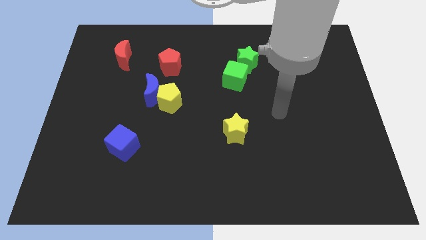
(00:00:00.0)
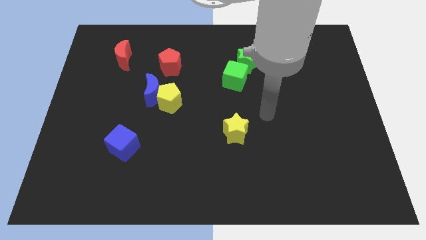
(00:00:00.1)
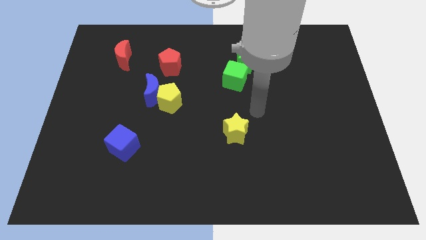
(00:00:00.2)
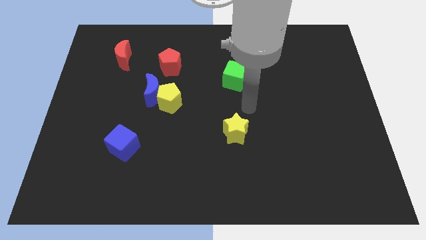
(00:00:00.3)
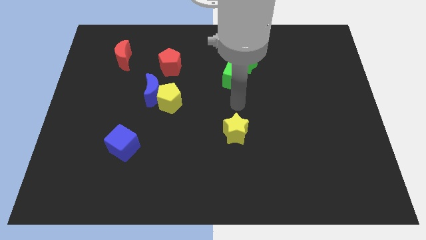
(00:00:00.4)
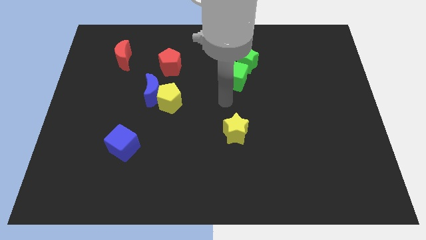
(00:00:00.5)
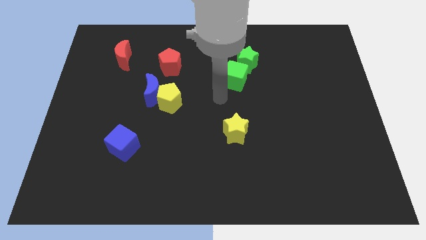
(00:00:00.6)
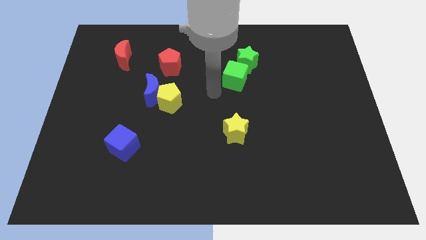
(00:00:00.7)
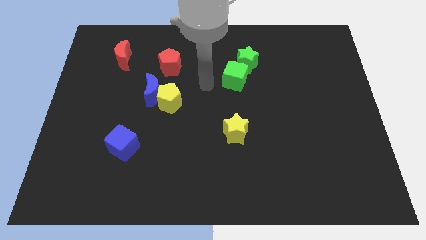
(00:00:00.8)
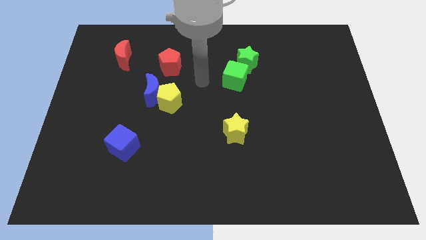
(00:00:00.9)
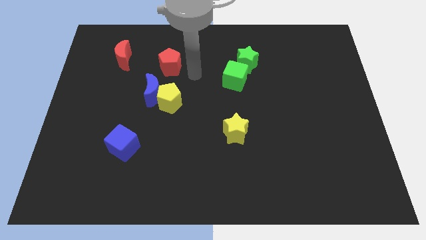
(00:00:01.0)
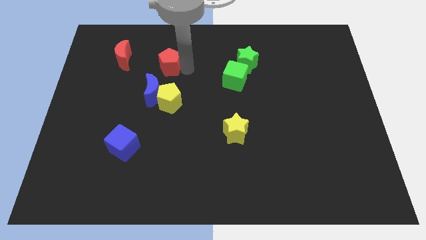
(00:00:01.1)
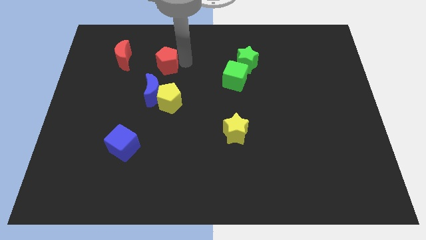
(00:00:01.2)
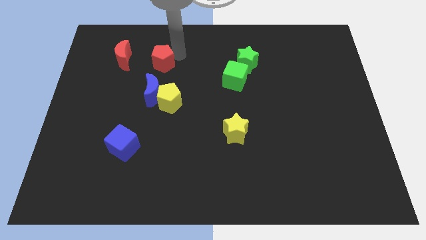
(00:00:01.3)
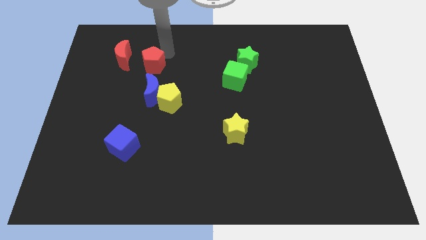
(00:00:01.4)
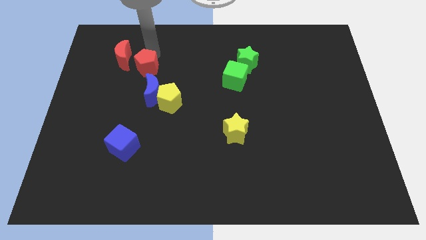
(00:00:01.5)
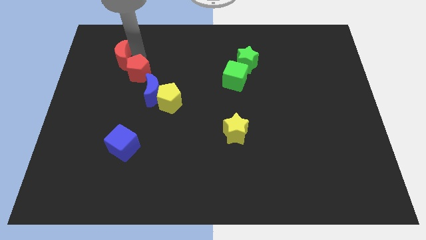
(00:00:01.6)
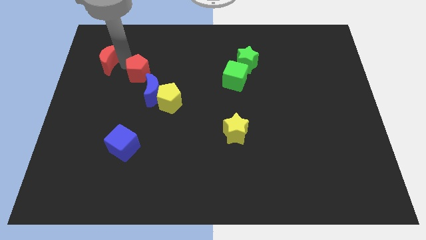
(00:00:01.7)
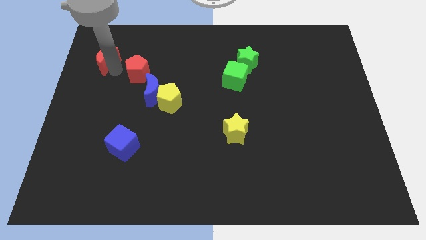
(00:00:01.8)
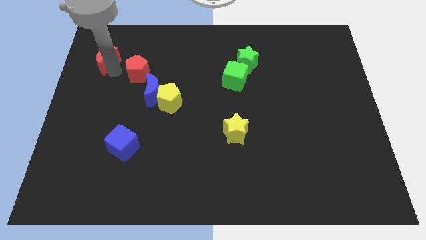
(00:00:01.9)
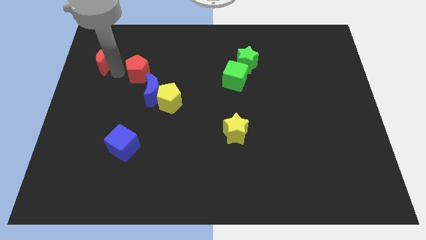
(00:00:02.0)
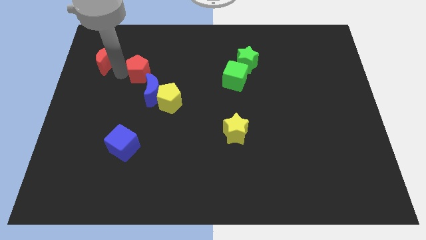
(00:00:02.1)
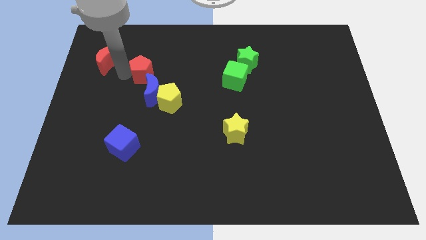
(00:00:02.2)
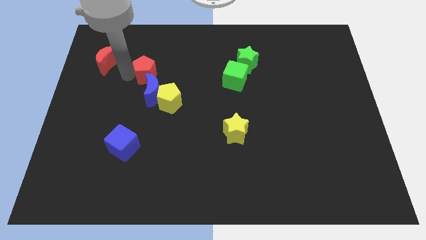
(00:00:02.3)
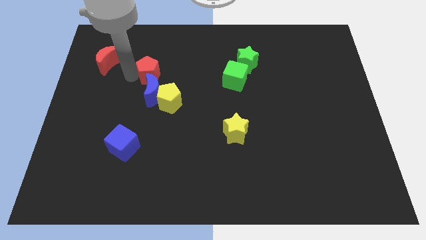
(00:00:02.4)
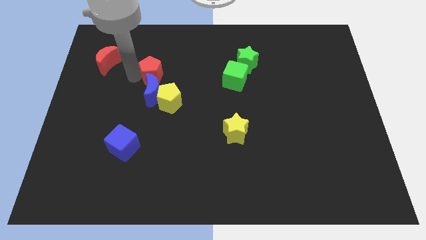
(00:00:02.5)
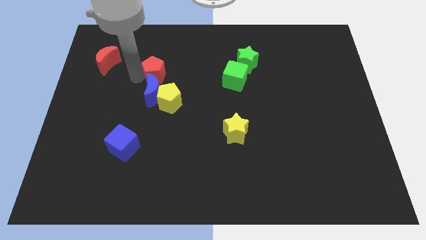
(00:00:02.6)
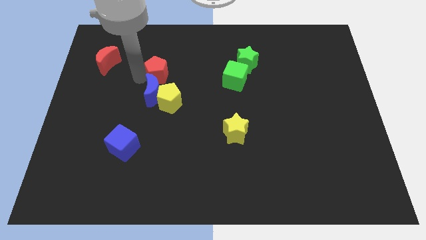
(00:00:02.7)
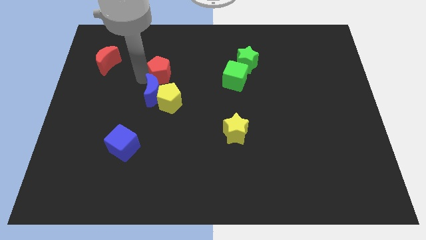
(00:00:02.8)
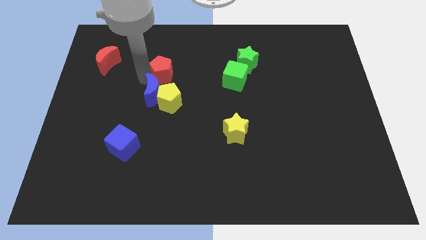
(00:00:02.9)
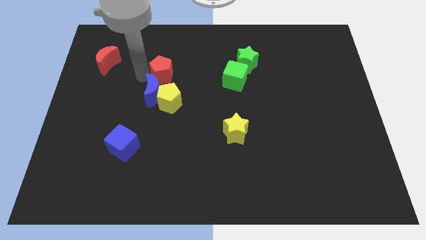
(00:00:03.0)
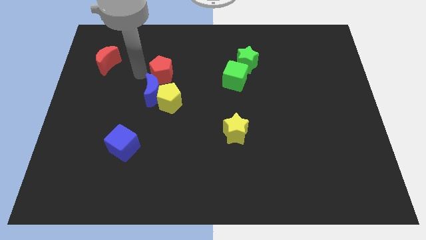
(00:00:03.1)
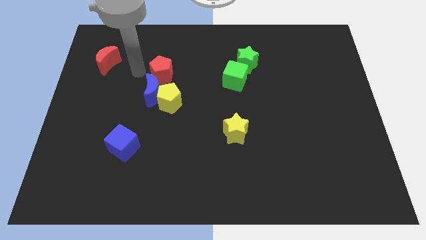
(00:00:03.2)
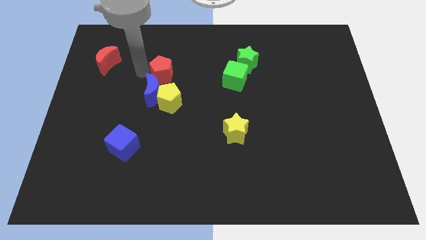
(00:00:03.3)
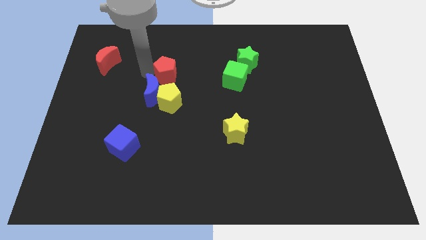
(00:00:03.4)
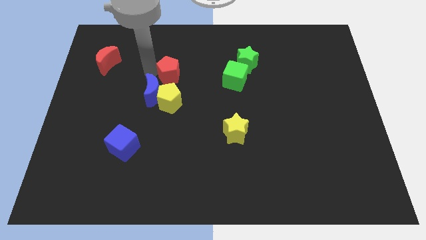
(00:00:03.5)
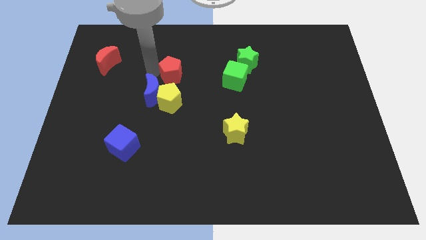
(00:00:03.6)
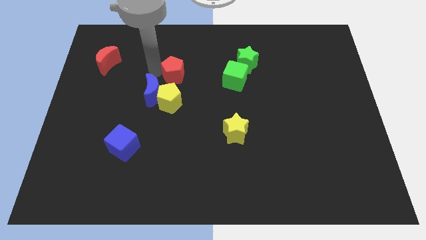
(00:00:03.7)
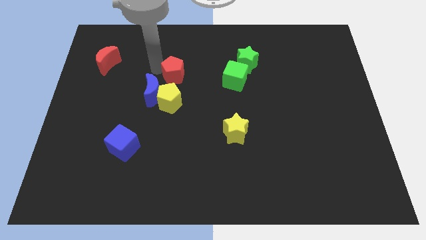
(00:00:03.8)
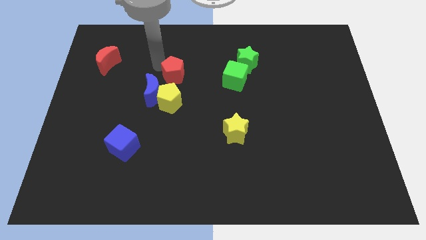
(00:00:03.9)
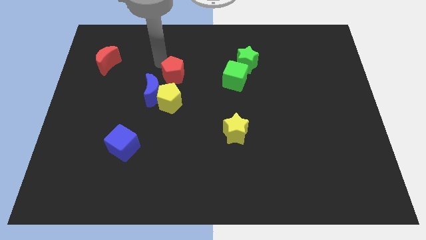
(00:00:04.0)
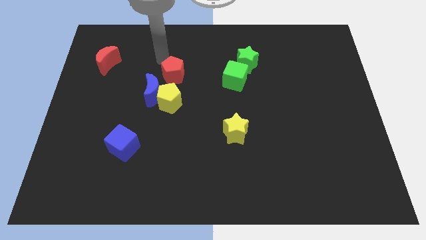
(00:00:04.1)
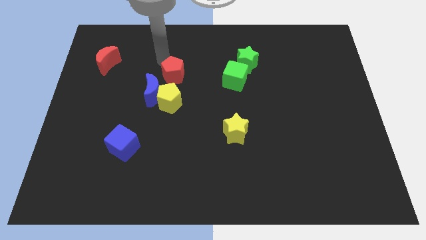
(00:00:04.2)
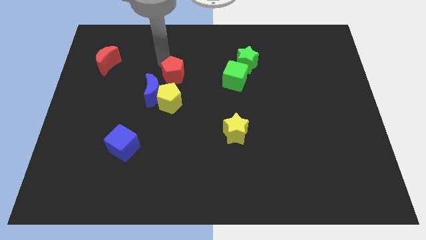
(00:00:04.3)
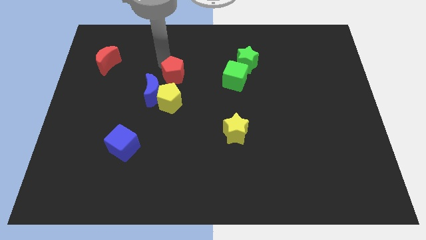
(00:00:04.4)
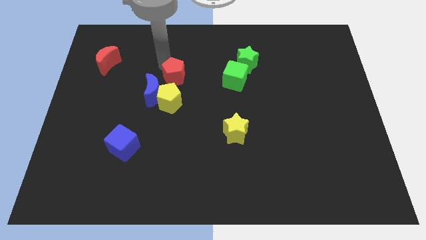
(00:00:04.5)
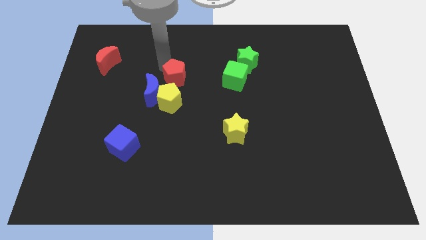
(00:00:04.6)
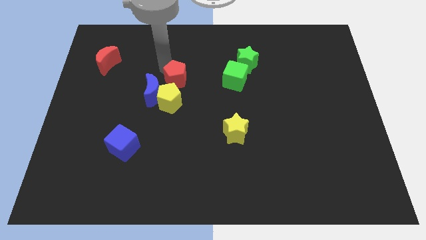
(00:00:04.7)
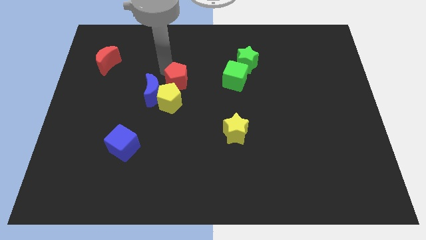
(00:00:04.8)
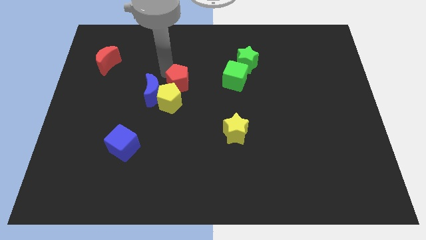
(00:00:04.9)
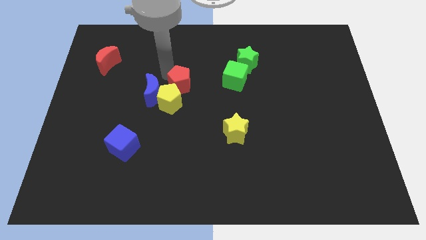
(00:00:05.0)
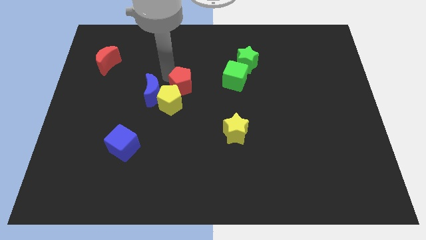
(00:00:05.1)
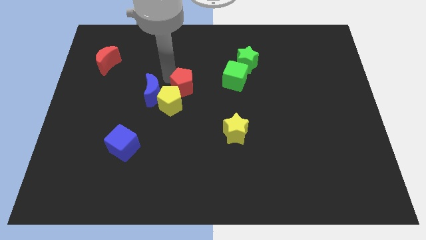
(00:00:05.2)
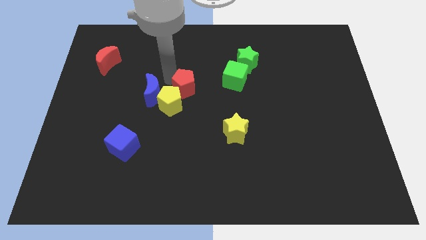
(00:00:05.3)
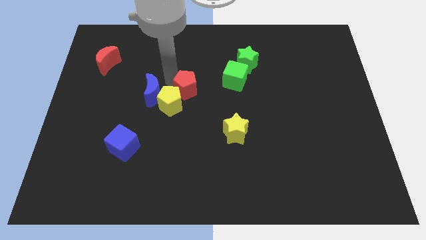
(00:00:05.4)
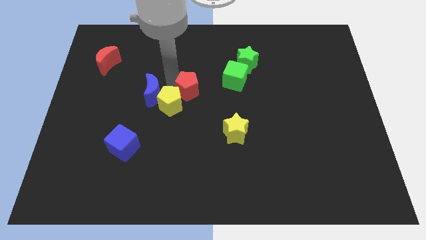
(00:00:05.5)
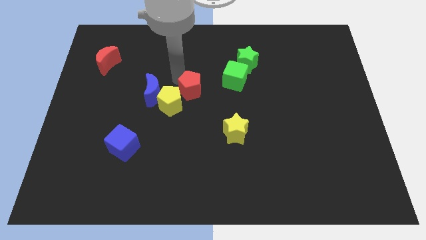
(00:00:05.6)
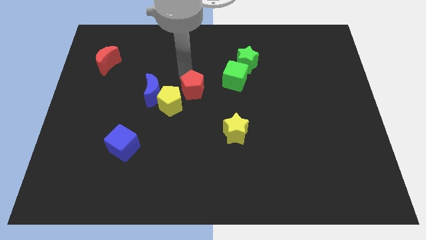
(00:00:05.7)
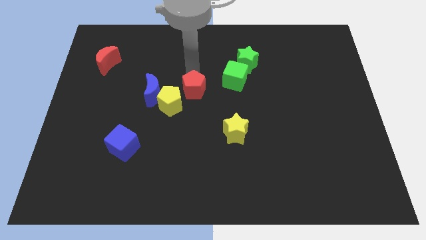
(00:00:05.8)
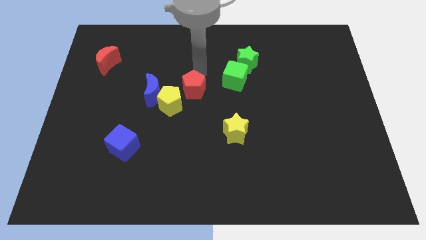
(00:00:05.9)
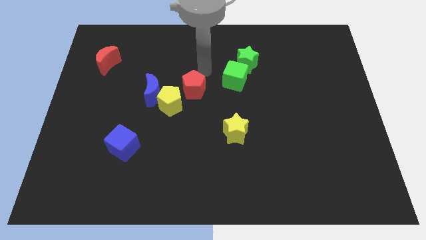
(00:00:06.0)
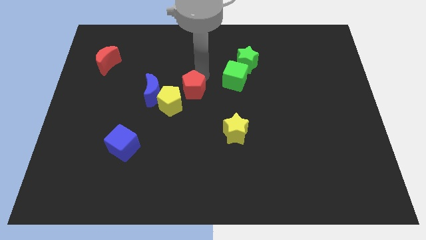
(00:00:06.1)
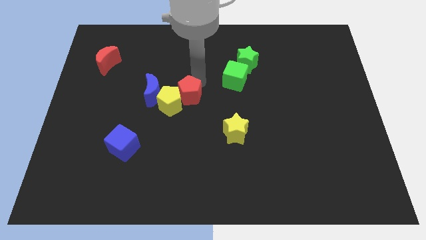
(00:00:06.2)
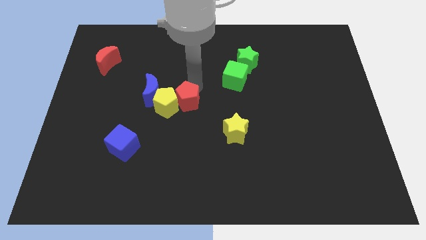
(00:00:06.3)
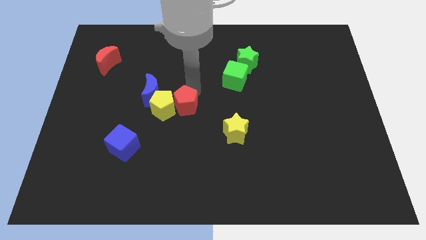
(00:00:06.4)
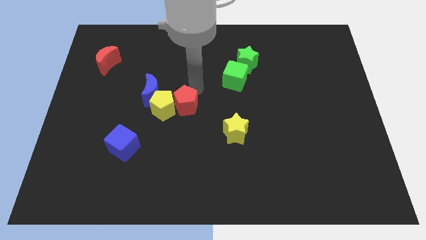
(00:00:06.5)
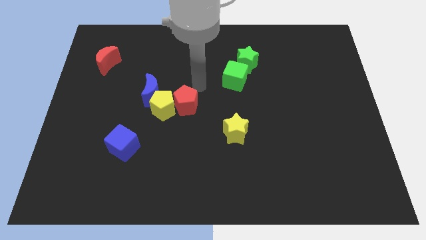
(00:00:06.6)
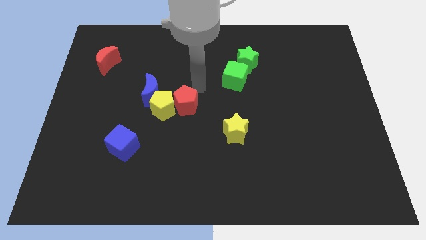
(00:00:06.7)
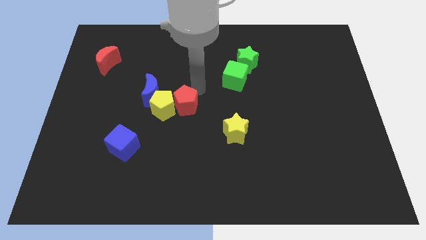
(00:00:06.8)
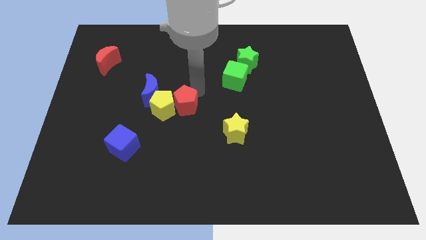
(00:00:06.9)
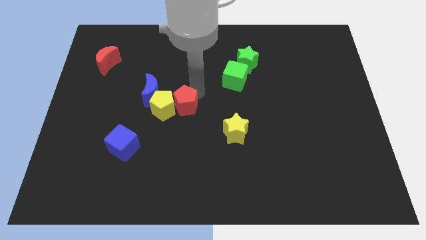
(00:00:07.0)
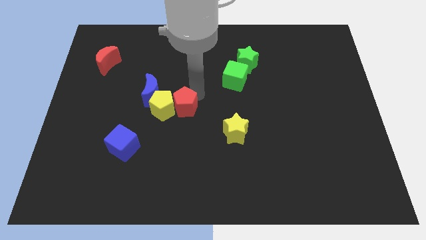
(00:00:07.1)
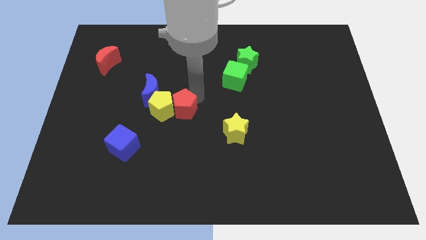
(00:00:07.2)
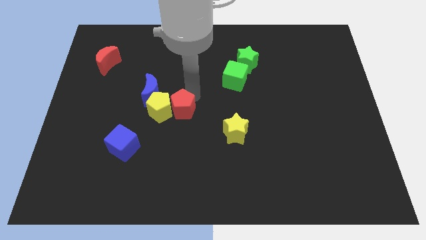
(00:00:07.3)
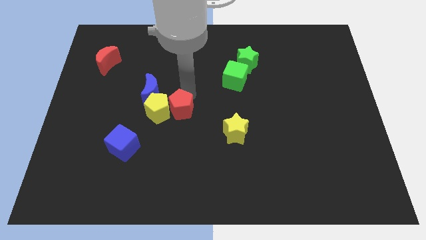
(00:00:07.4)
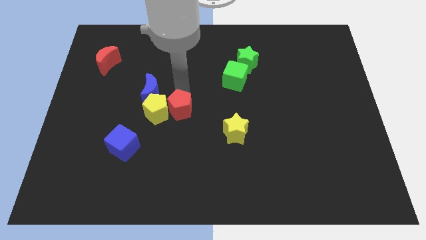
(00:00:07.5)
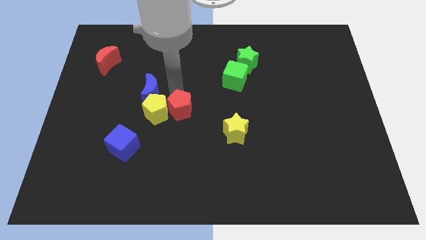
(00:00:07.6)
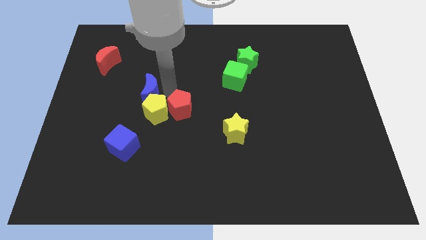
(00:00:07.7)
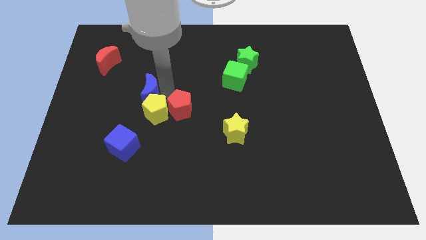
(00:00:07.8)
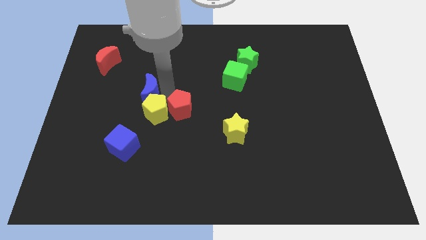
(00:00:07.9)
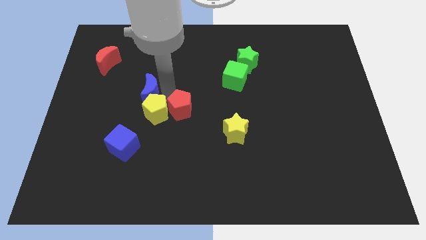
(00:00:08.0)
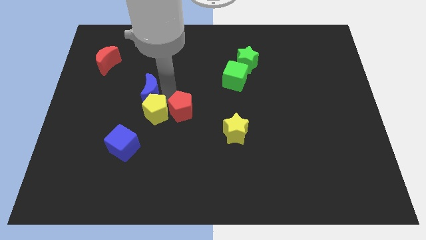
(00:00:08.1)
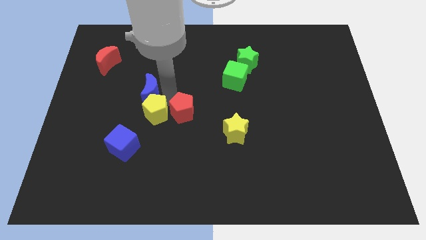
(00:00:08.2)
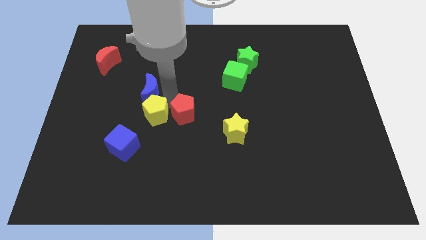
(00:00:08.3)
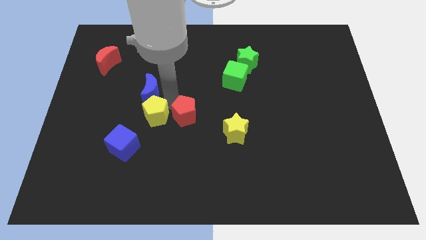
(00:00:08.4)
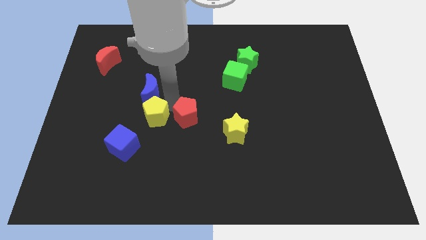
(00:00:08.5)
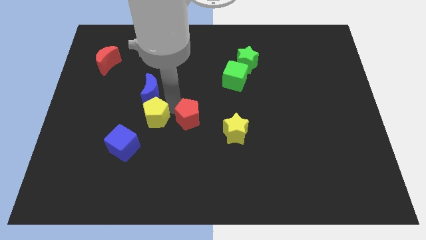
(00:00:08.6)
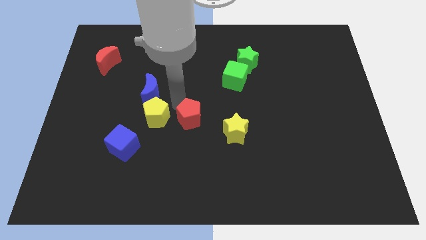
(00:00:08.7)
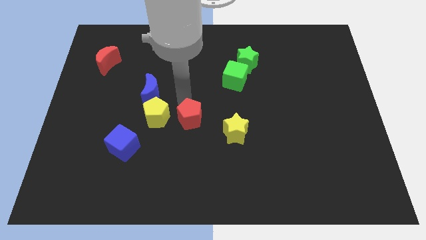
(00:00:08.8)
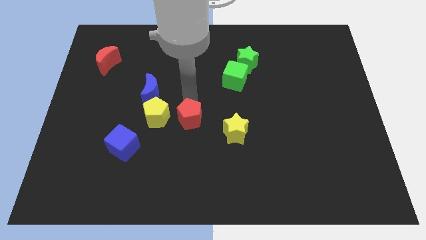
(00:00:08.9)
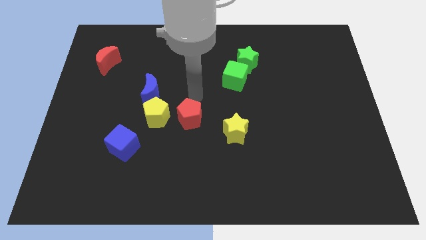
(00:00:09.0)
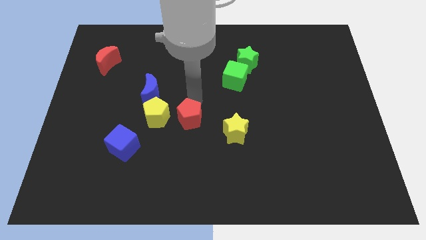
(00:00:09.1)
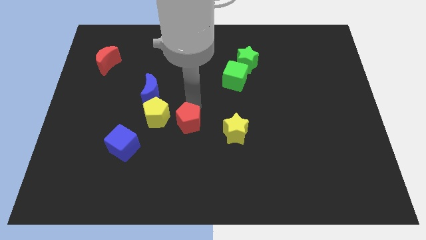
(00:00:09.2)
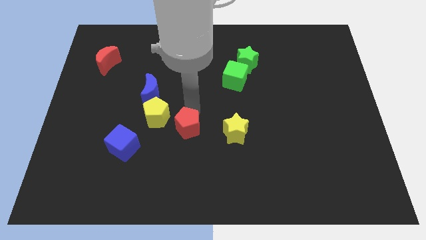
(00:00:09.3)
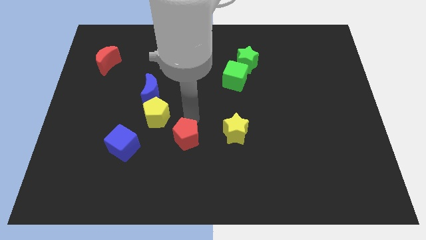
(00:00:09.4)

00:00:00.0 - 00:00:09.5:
move the red pentagon down
